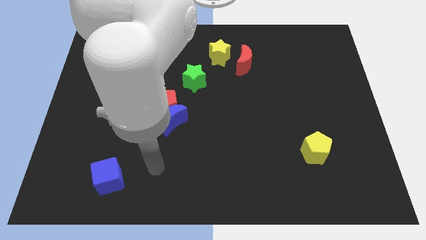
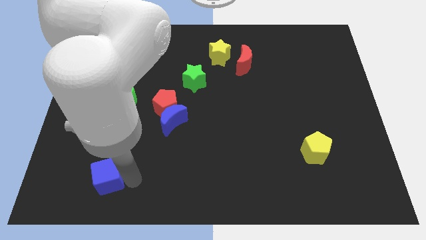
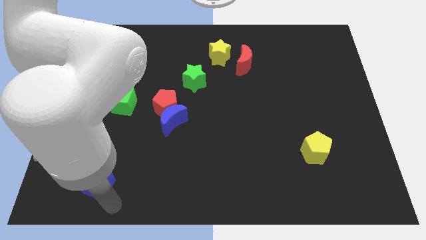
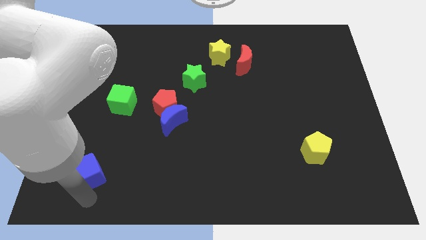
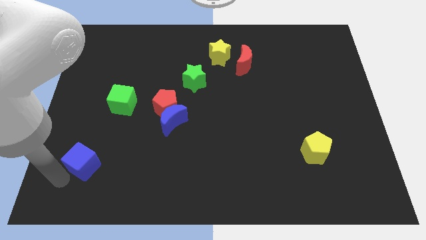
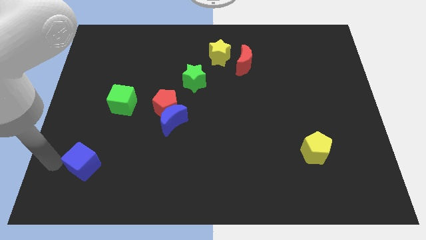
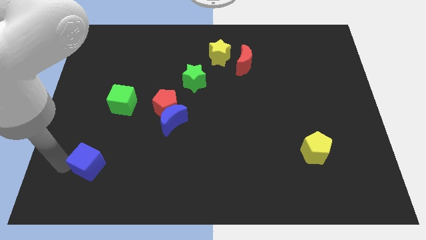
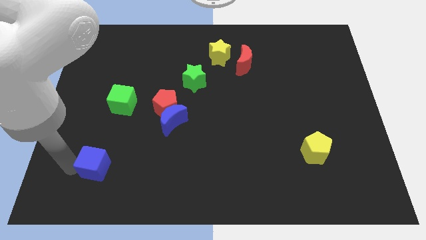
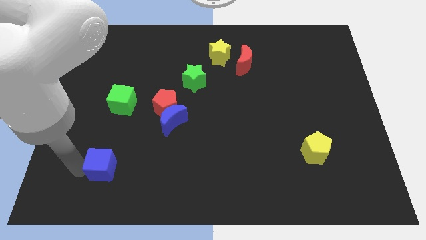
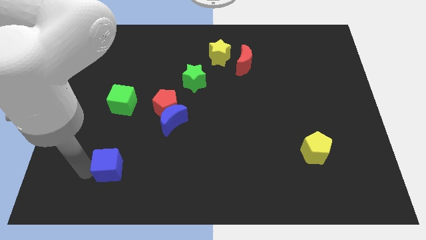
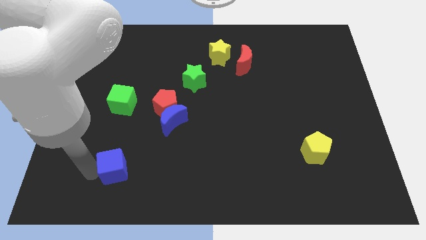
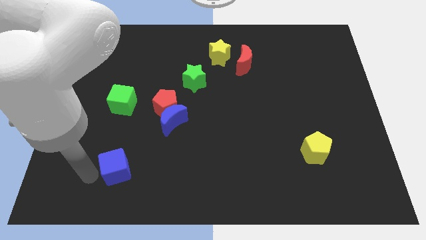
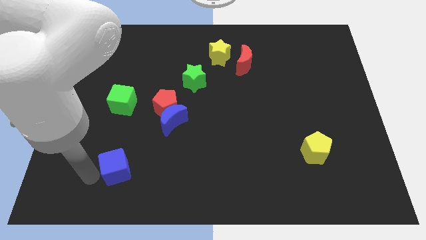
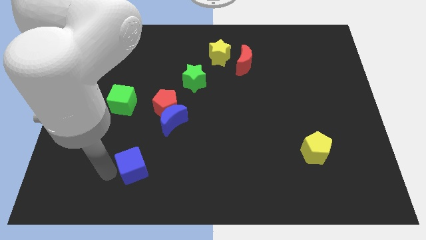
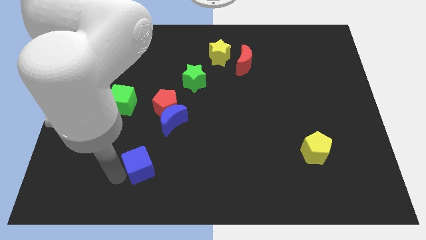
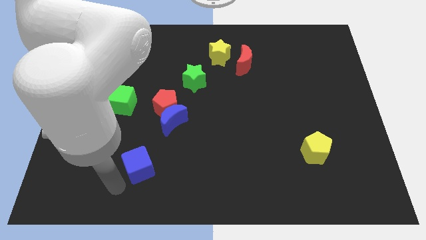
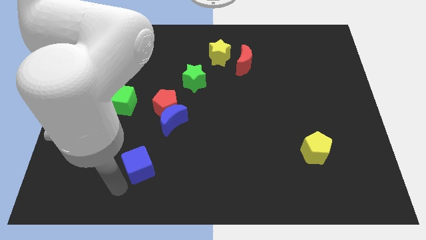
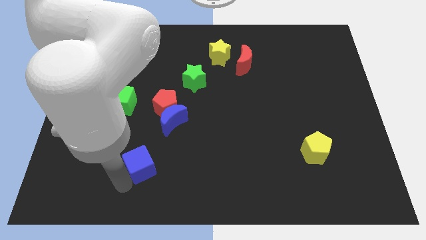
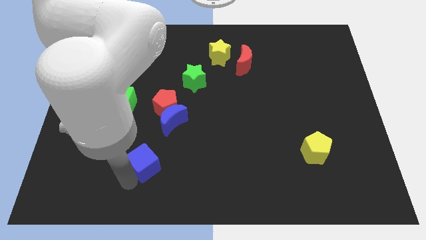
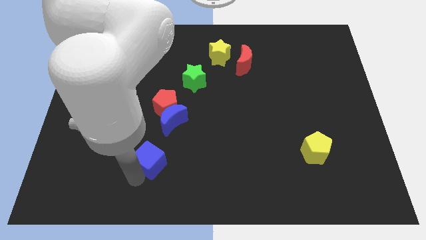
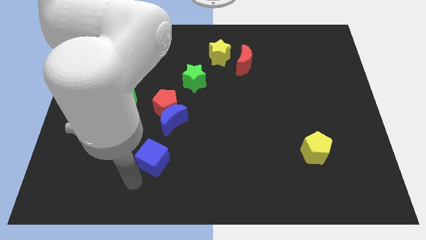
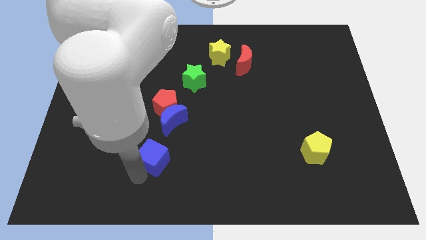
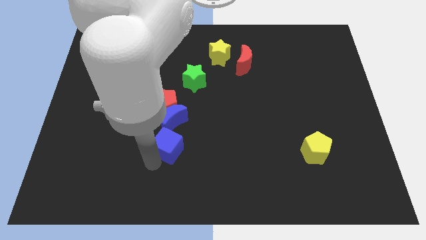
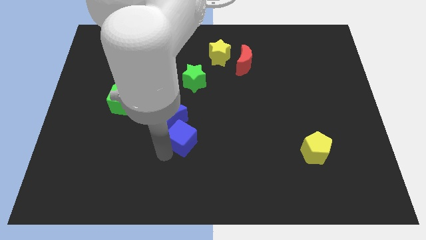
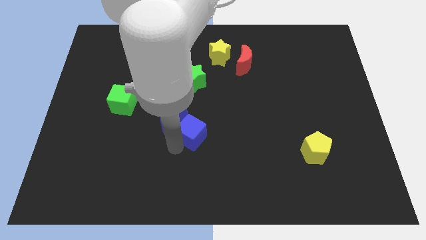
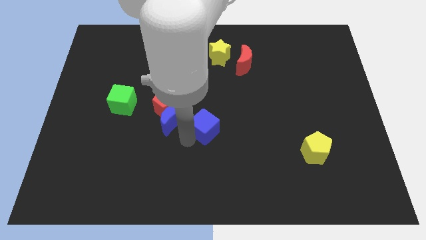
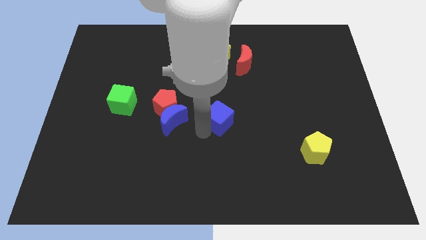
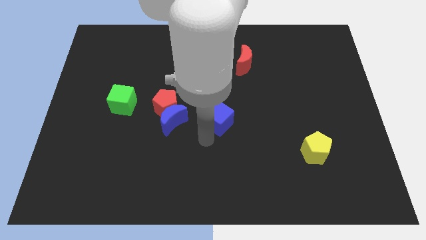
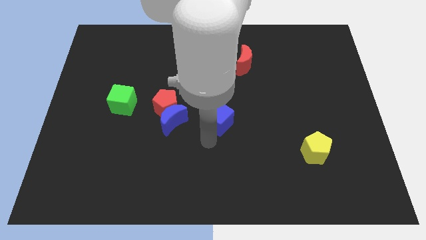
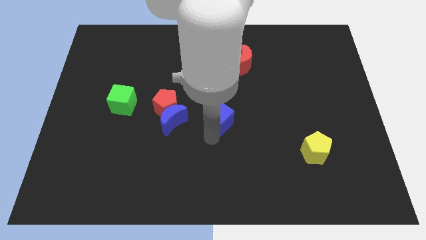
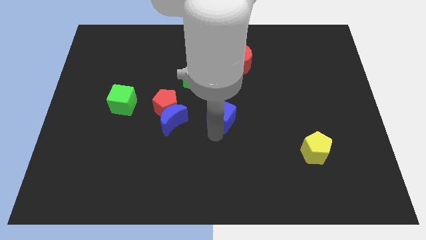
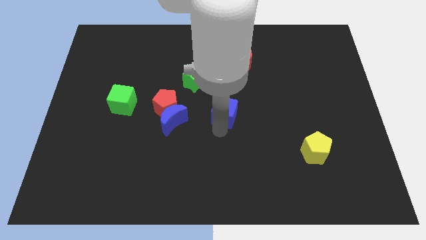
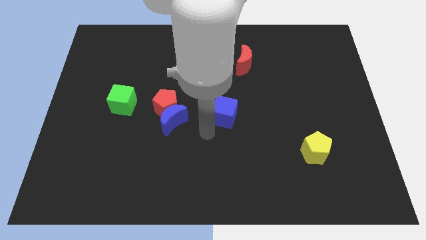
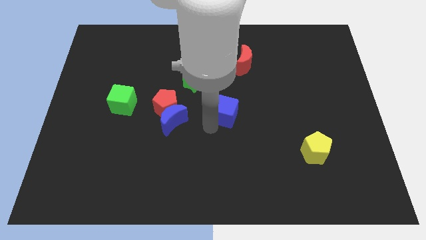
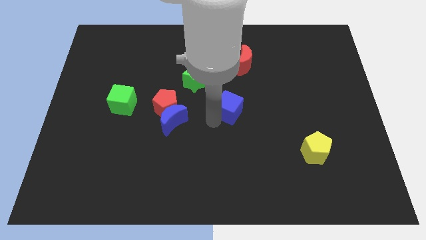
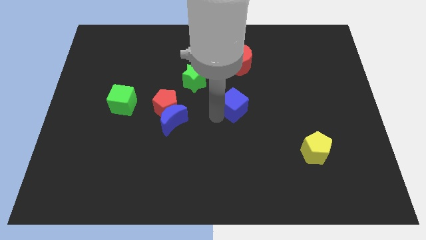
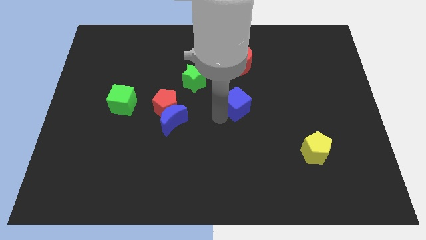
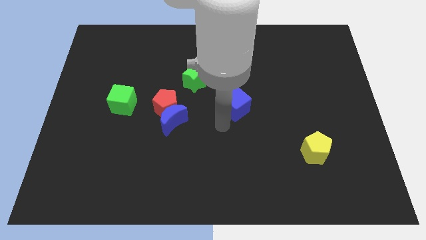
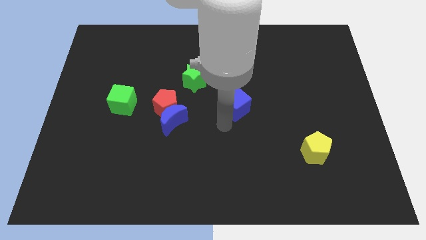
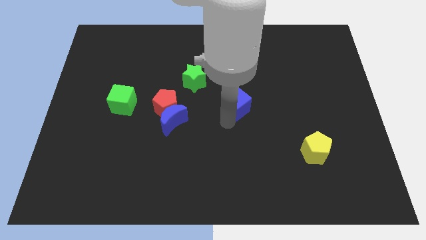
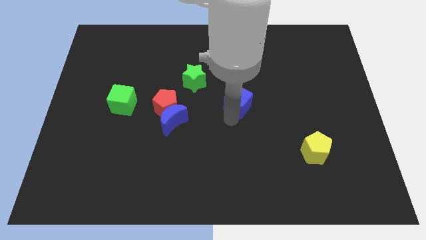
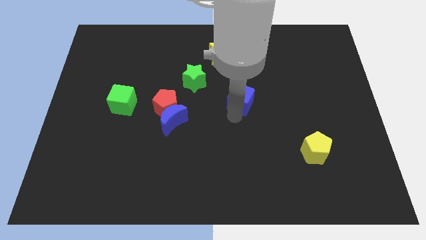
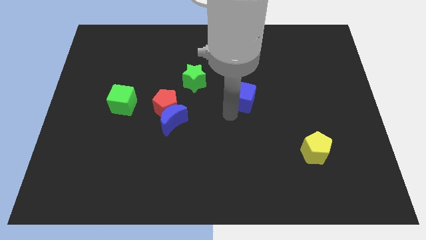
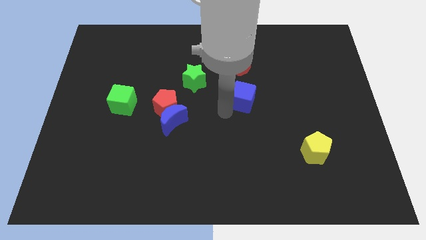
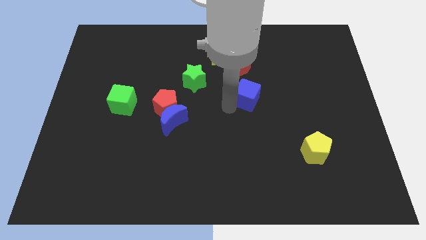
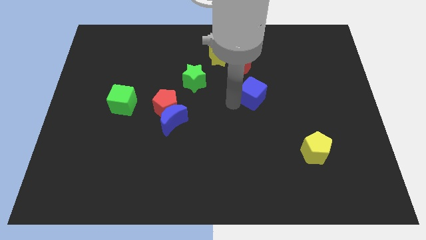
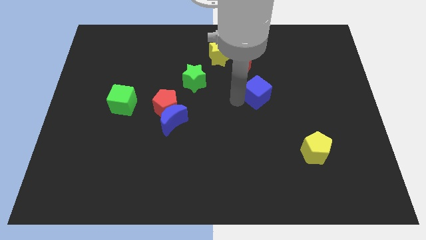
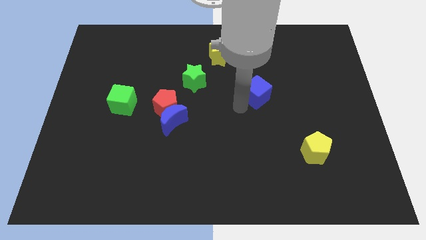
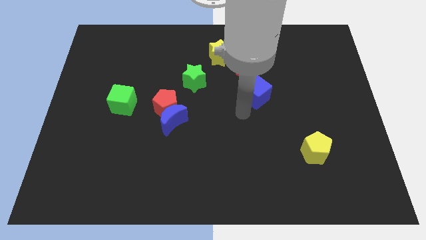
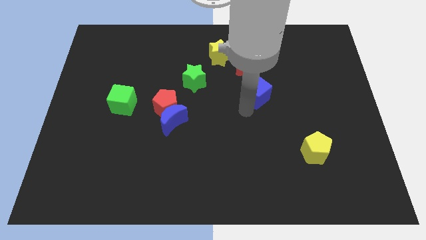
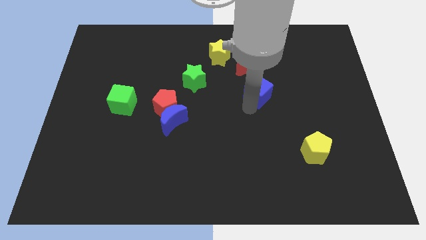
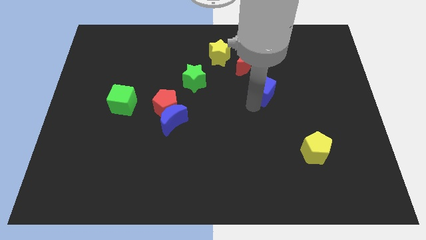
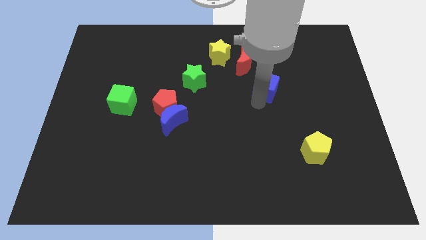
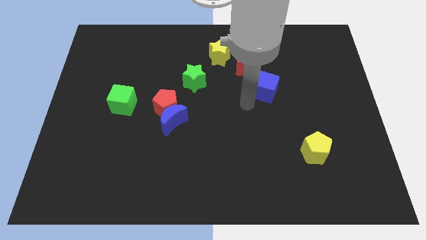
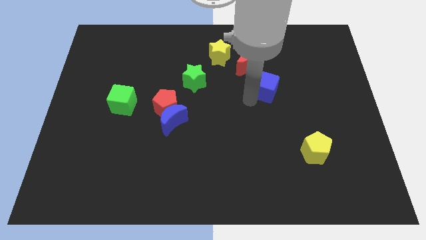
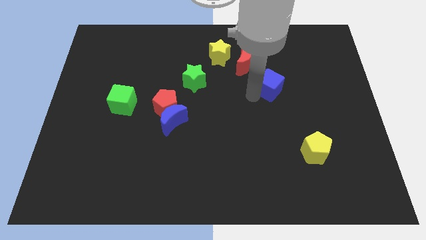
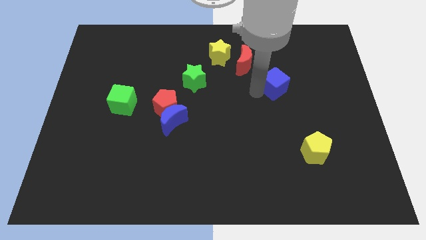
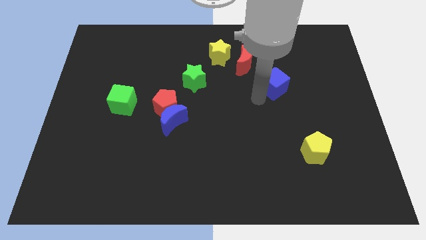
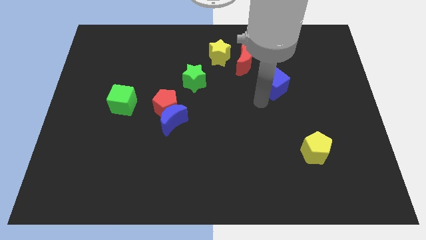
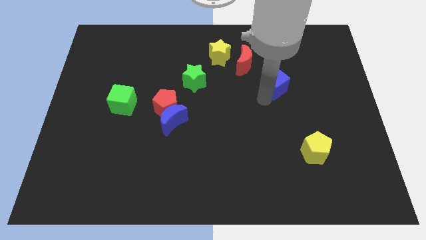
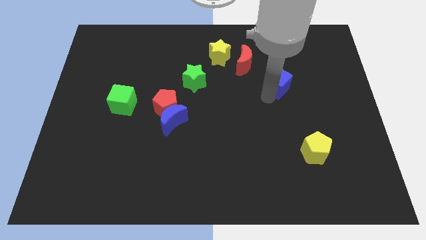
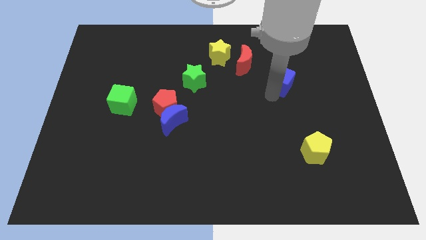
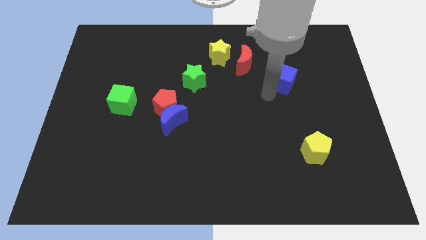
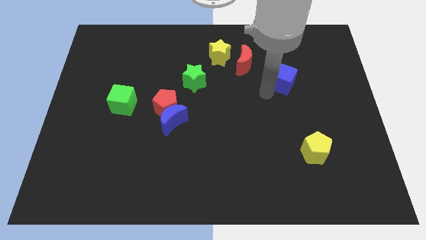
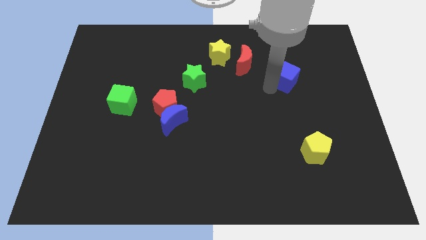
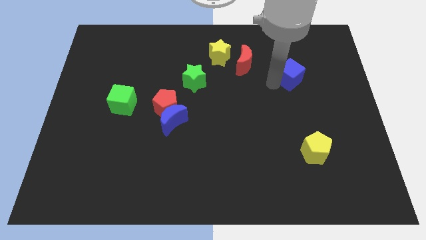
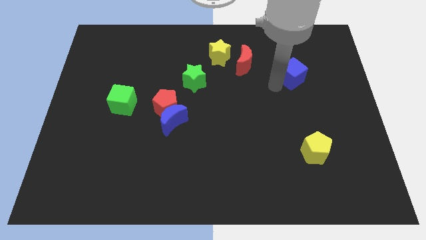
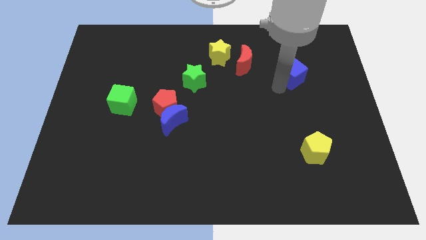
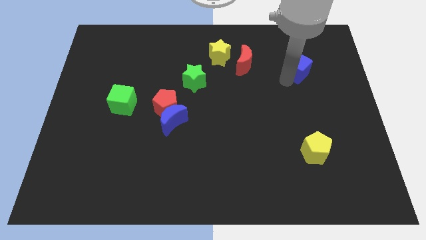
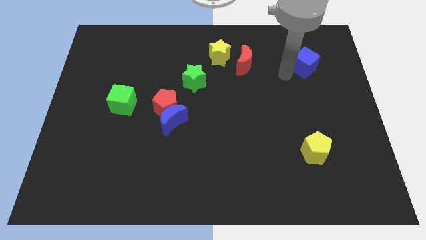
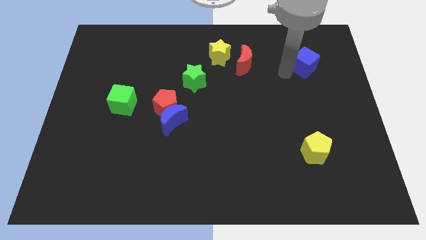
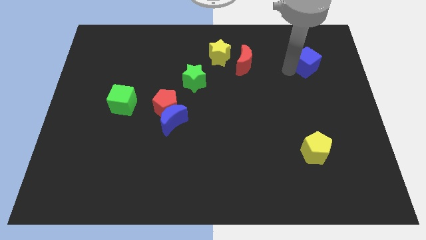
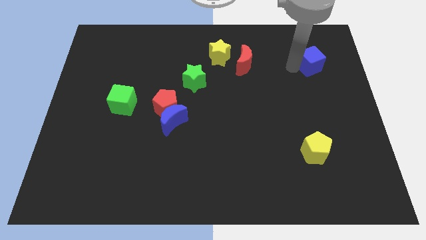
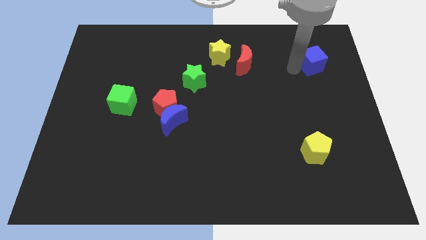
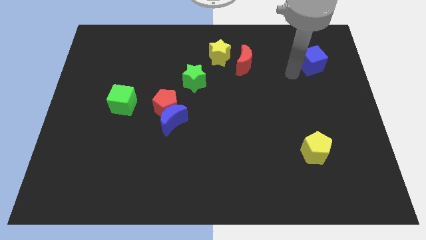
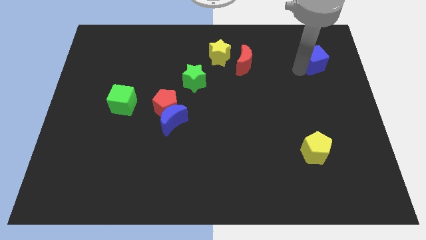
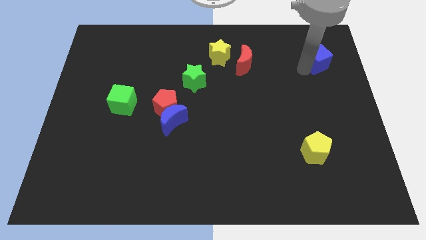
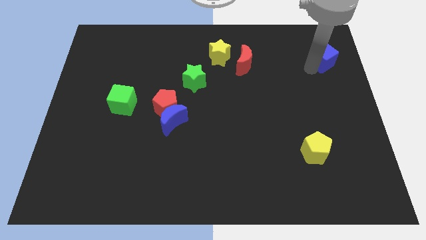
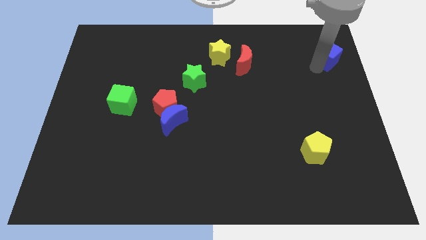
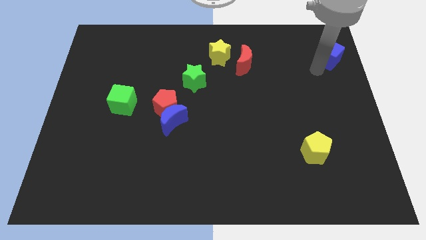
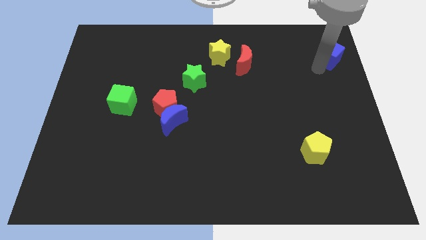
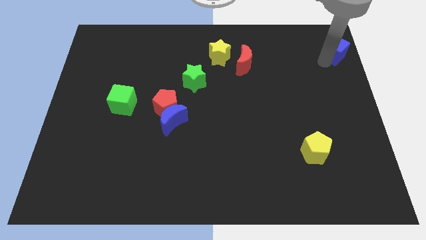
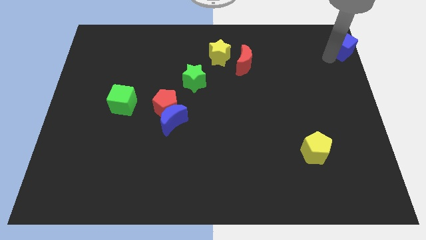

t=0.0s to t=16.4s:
put the blue cube to the top right
